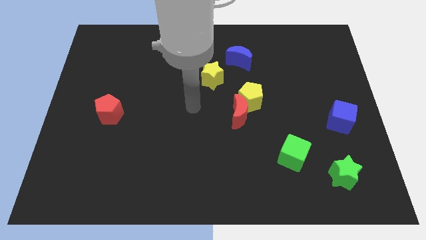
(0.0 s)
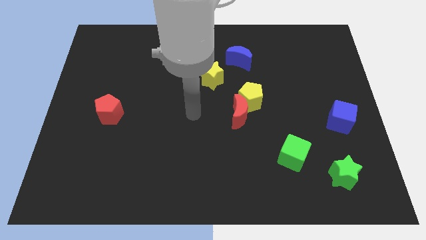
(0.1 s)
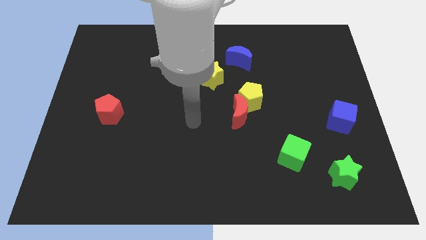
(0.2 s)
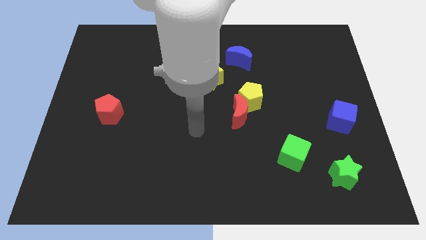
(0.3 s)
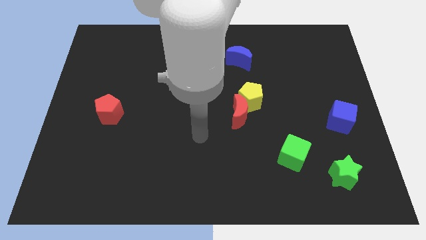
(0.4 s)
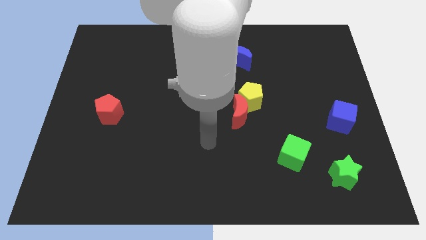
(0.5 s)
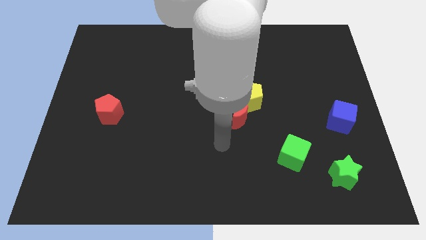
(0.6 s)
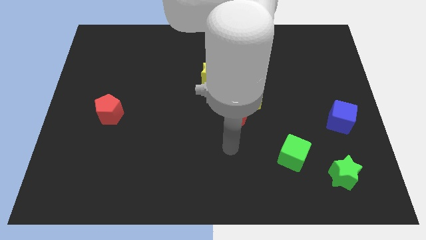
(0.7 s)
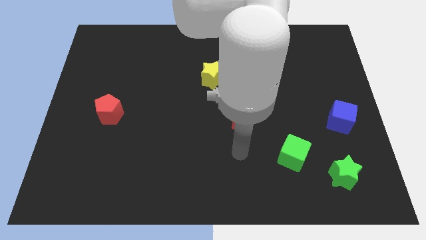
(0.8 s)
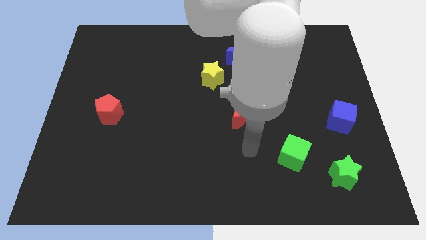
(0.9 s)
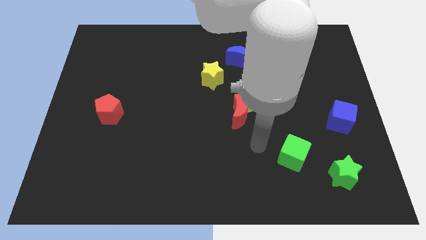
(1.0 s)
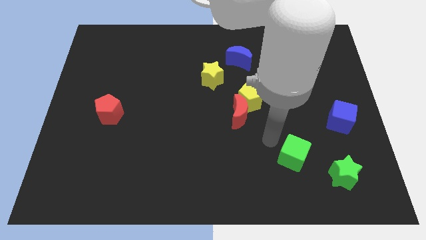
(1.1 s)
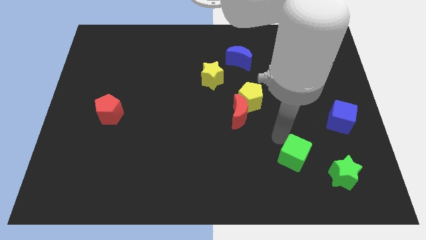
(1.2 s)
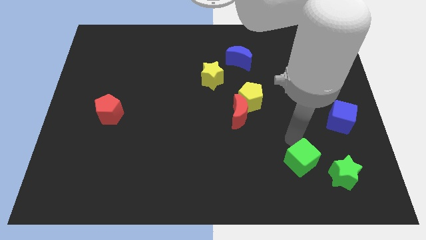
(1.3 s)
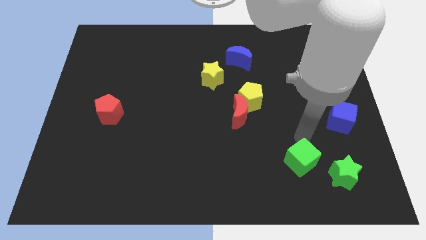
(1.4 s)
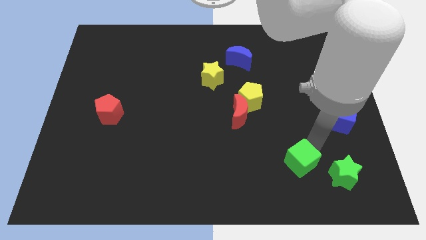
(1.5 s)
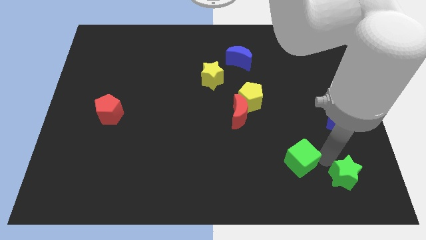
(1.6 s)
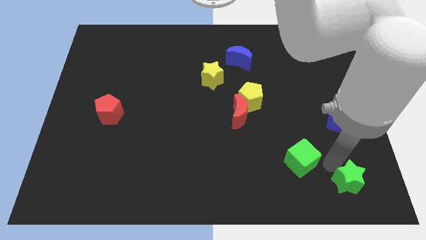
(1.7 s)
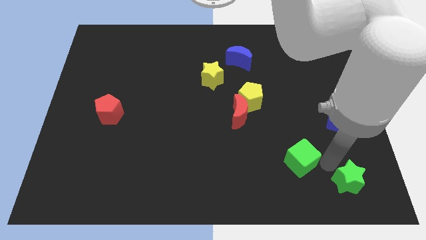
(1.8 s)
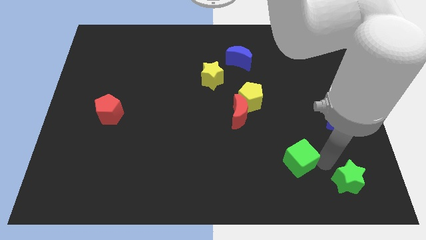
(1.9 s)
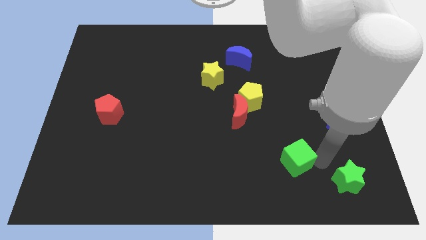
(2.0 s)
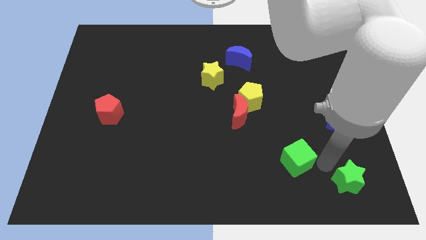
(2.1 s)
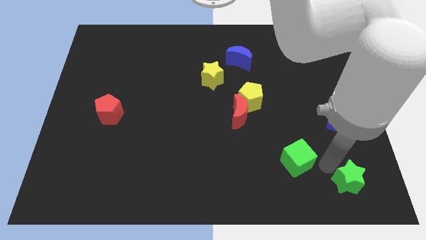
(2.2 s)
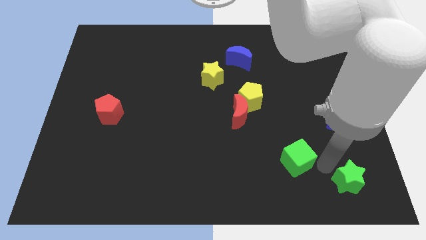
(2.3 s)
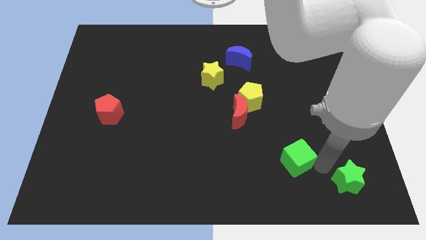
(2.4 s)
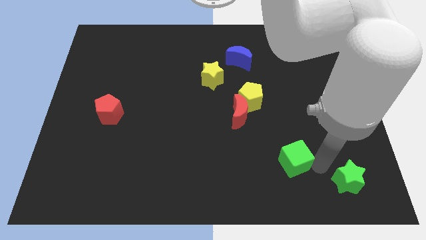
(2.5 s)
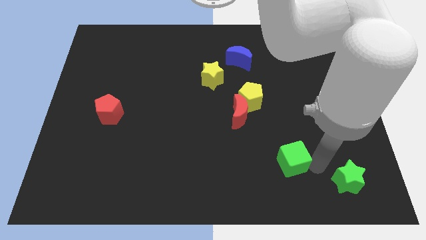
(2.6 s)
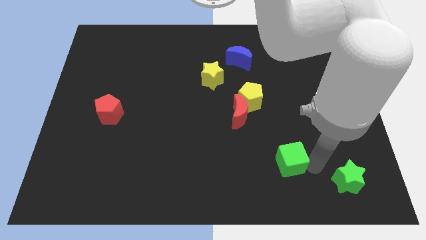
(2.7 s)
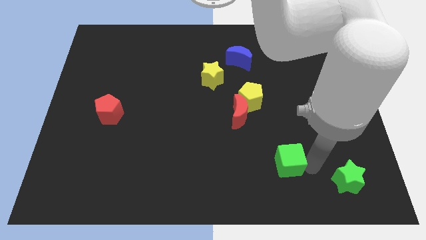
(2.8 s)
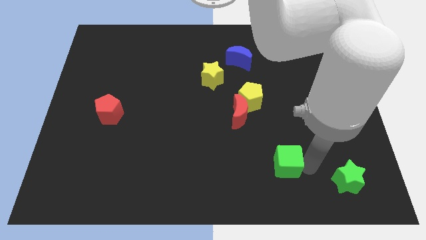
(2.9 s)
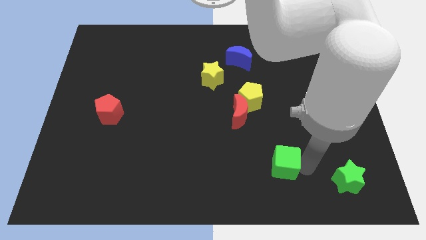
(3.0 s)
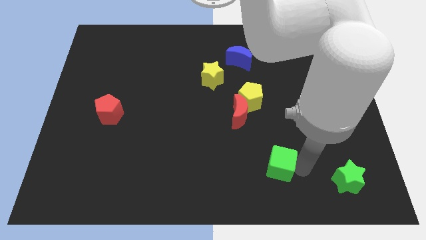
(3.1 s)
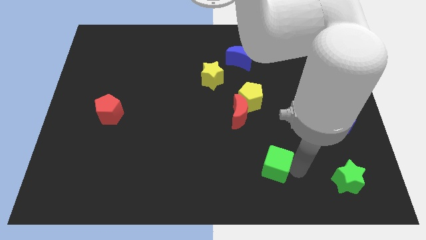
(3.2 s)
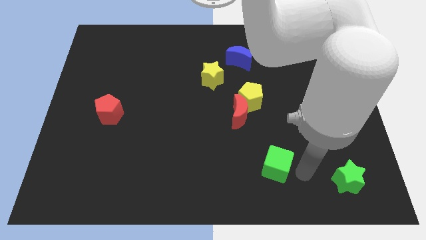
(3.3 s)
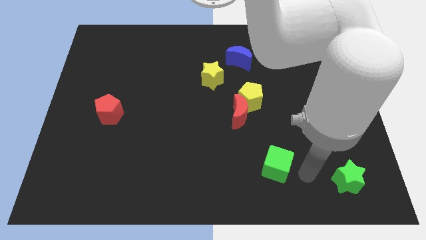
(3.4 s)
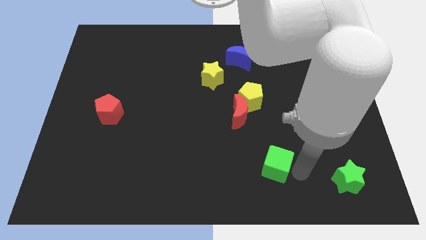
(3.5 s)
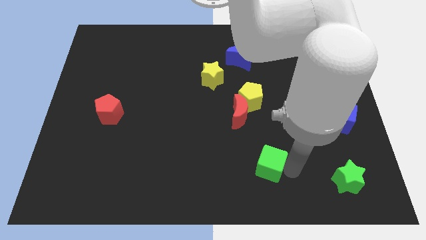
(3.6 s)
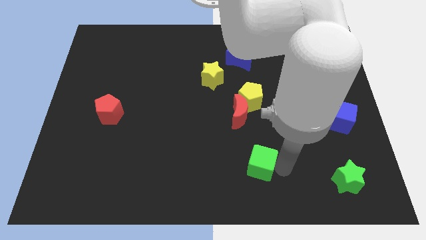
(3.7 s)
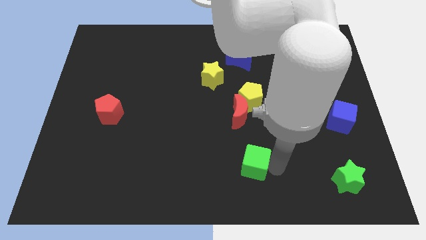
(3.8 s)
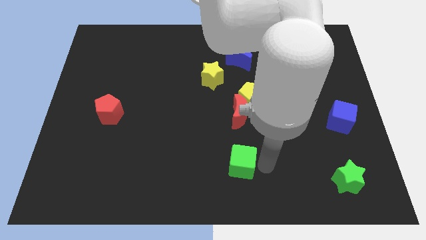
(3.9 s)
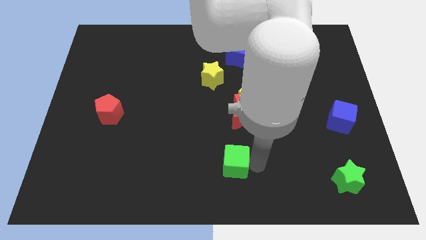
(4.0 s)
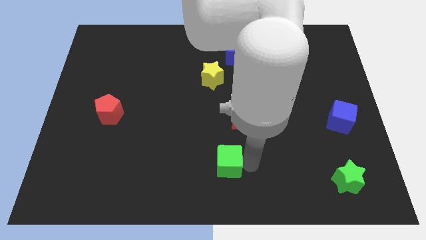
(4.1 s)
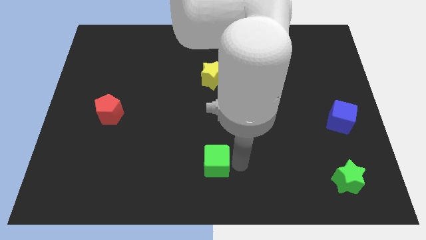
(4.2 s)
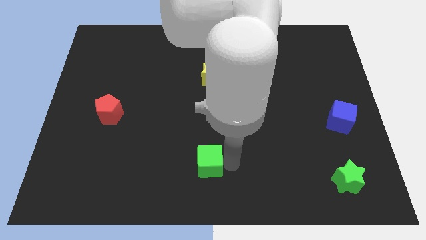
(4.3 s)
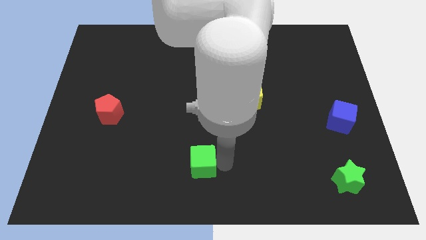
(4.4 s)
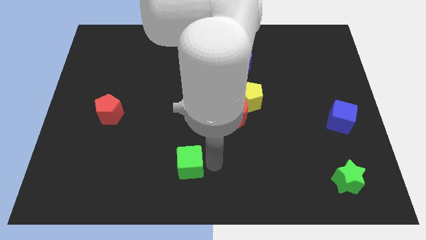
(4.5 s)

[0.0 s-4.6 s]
slide the green cube to the left

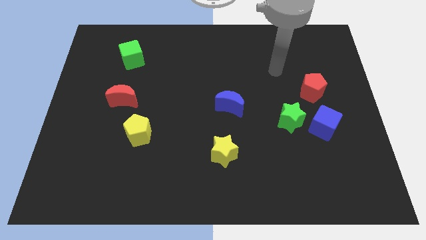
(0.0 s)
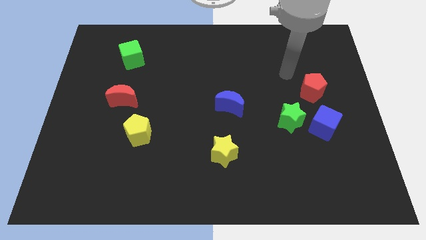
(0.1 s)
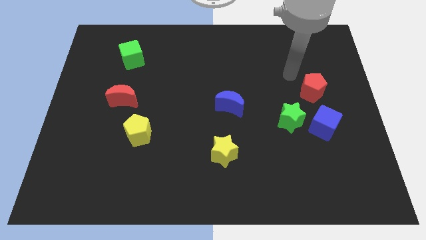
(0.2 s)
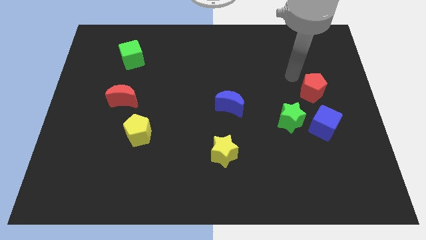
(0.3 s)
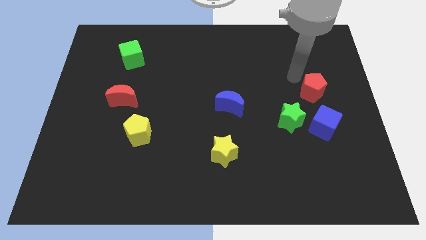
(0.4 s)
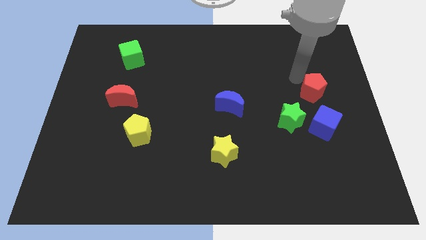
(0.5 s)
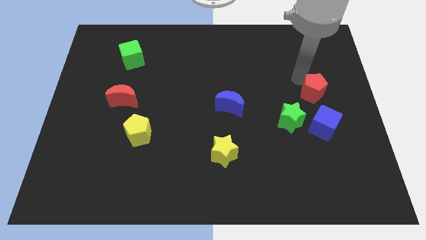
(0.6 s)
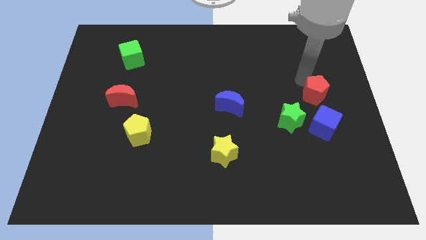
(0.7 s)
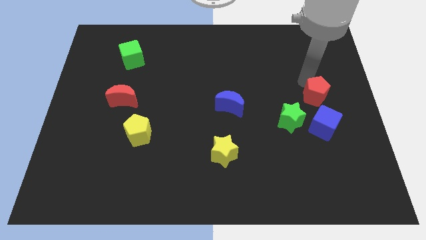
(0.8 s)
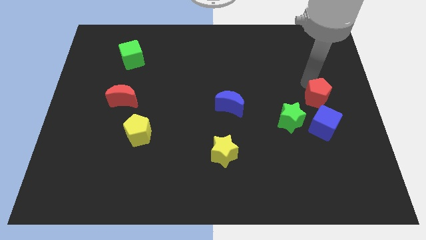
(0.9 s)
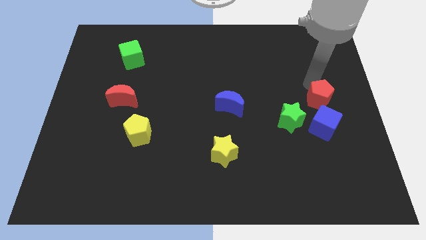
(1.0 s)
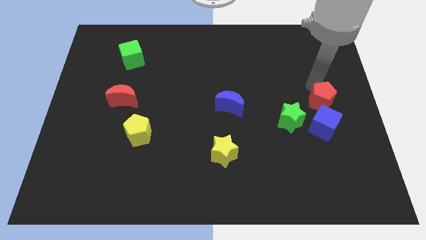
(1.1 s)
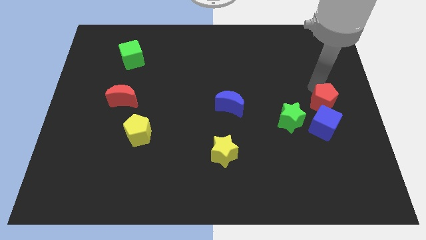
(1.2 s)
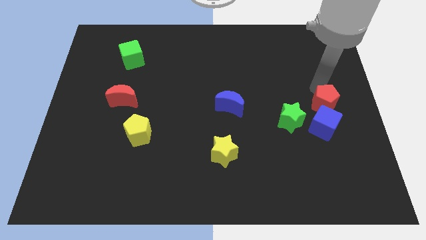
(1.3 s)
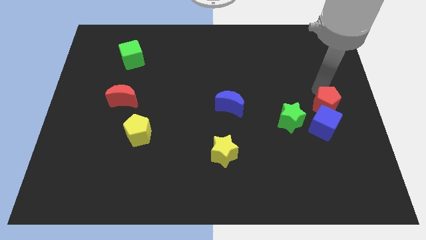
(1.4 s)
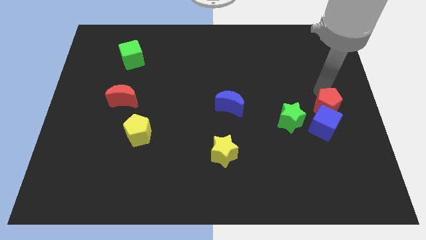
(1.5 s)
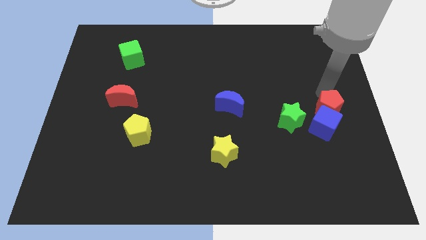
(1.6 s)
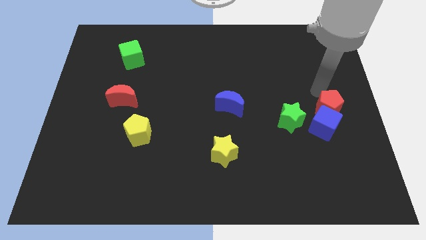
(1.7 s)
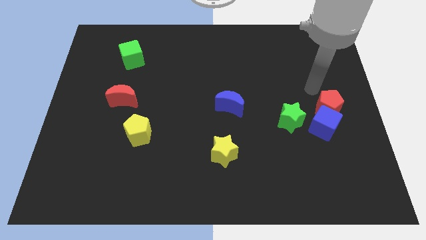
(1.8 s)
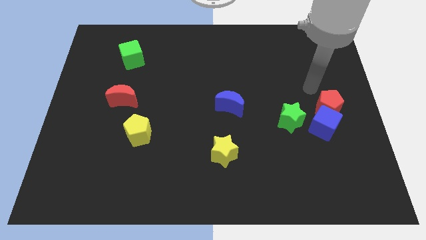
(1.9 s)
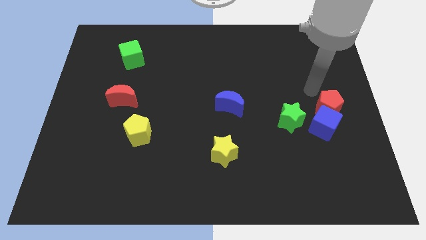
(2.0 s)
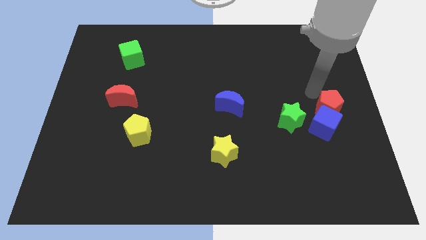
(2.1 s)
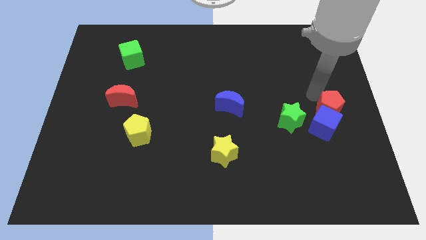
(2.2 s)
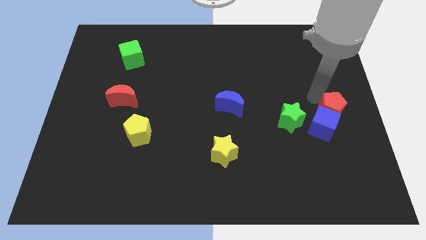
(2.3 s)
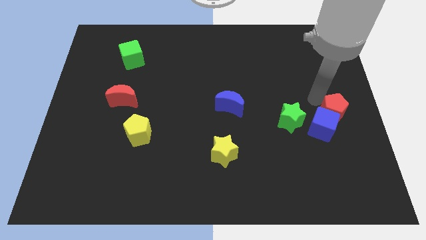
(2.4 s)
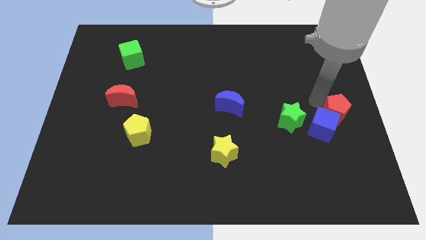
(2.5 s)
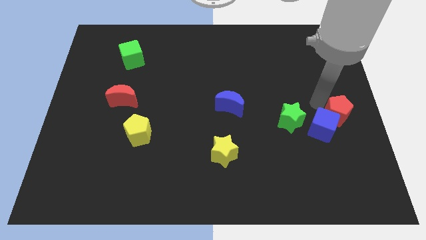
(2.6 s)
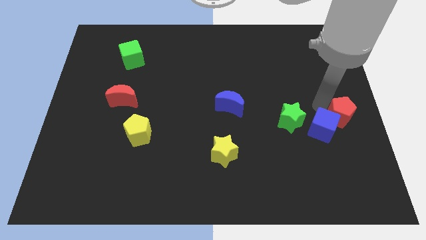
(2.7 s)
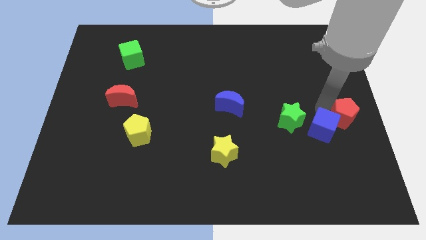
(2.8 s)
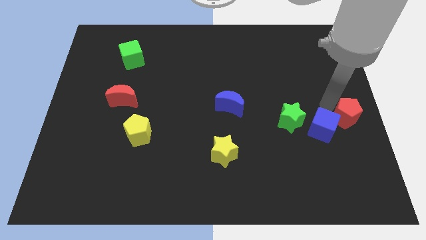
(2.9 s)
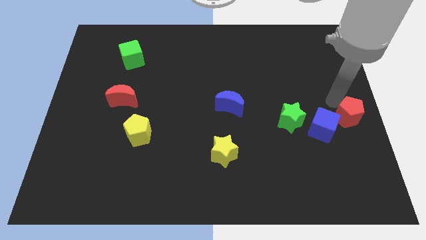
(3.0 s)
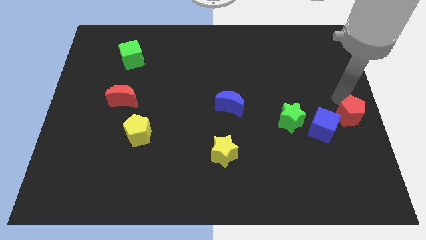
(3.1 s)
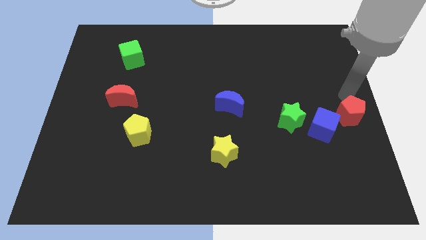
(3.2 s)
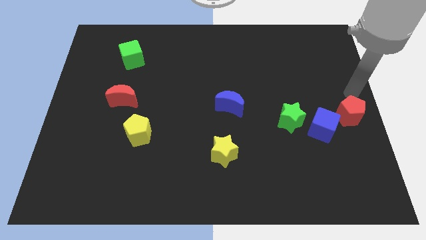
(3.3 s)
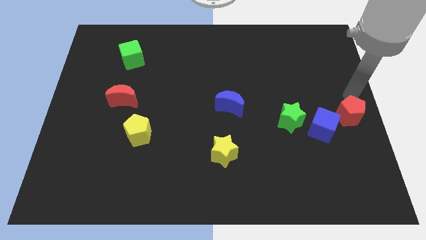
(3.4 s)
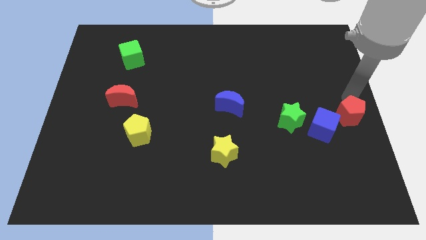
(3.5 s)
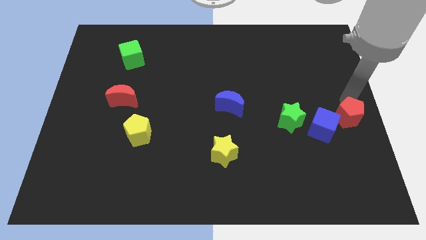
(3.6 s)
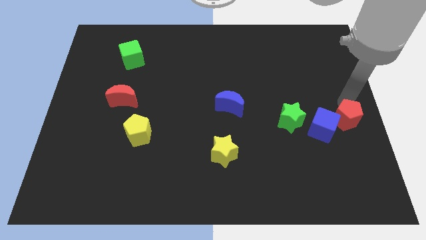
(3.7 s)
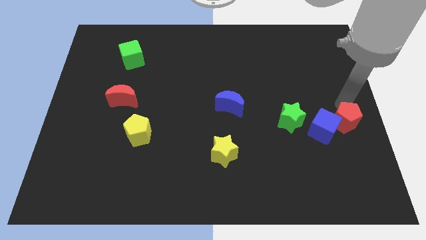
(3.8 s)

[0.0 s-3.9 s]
move the red pentagon downwards a little bit
